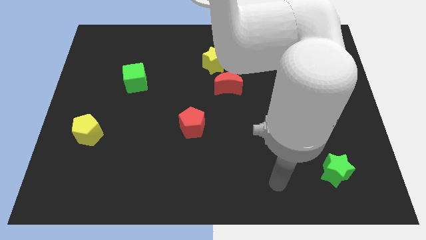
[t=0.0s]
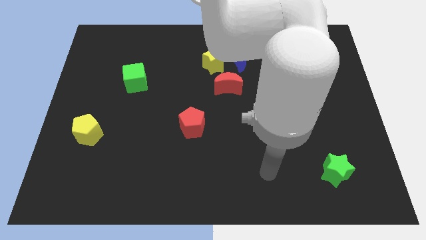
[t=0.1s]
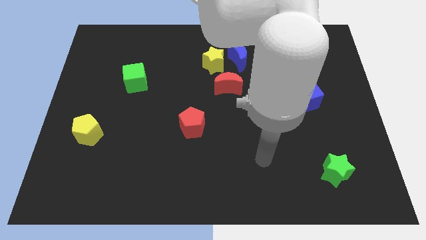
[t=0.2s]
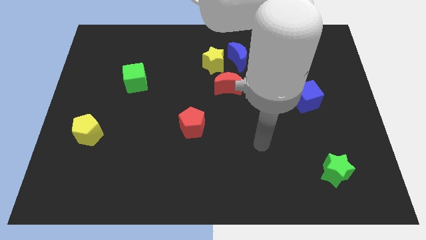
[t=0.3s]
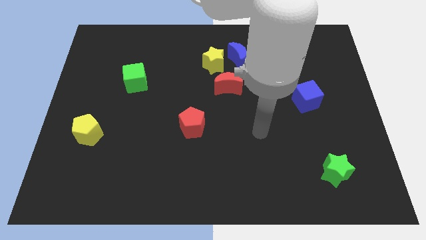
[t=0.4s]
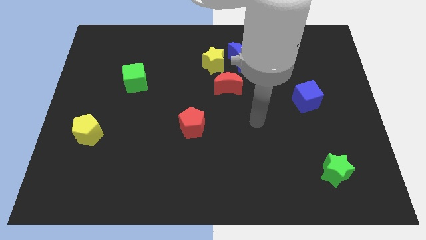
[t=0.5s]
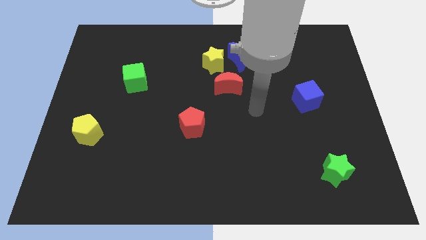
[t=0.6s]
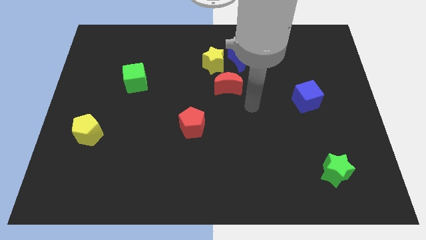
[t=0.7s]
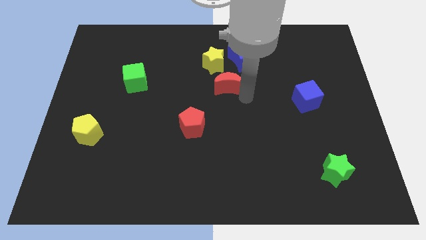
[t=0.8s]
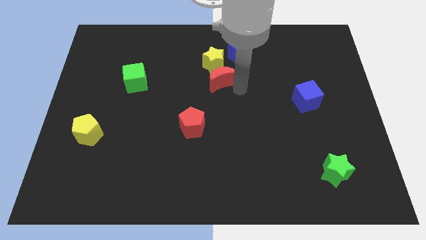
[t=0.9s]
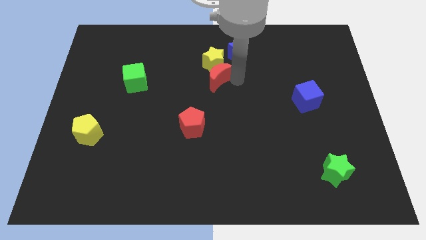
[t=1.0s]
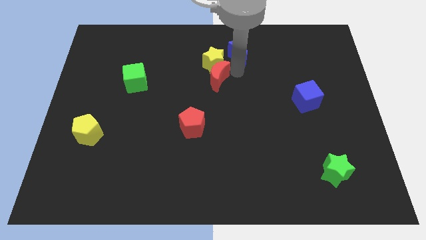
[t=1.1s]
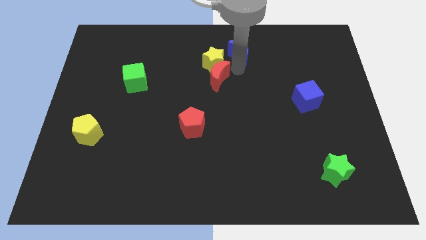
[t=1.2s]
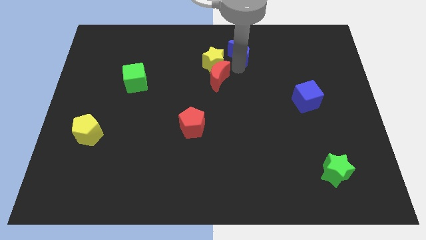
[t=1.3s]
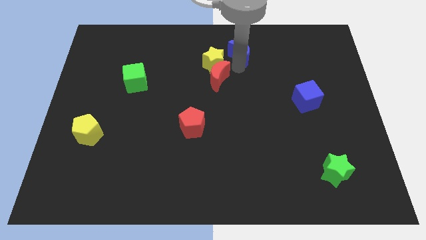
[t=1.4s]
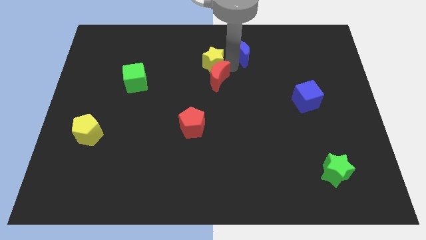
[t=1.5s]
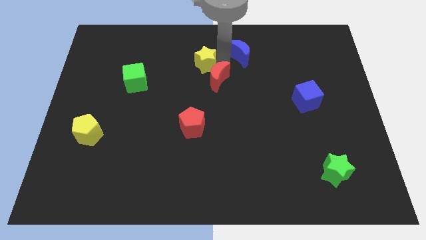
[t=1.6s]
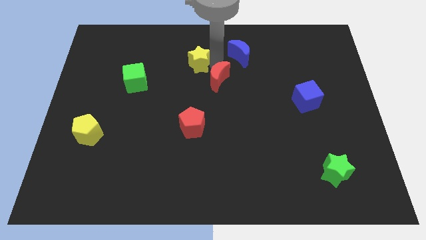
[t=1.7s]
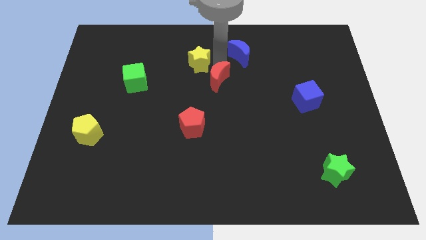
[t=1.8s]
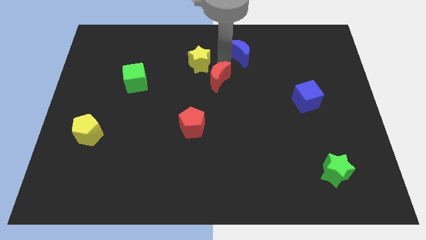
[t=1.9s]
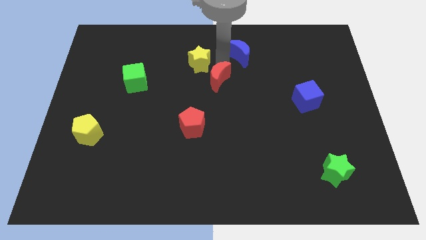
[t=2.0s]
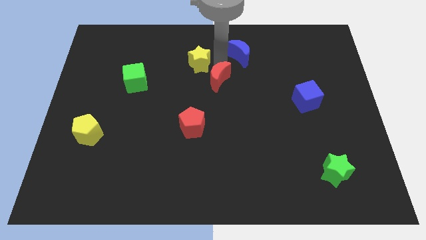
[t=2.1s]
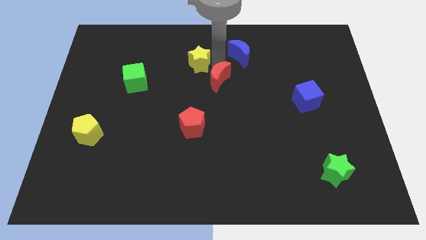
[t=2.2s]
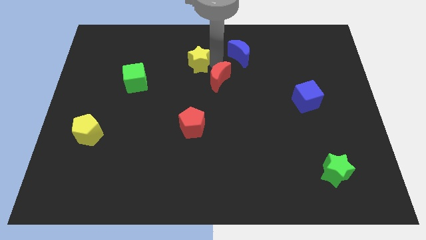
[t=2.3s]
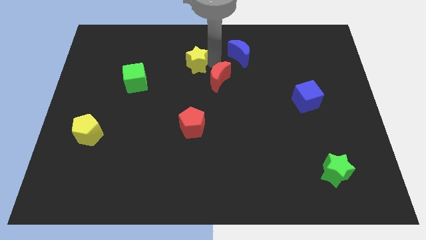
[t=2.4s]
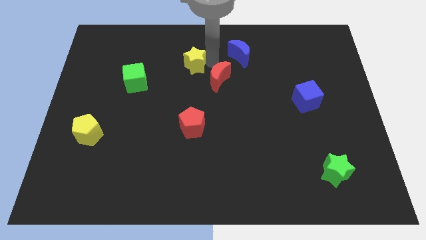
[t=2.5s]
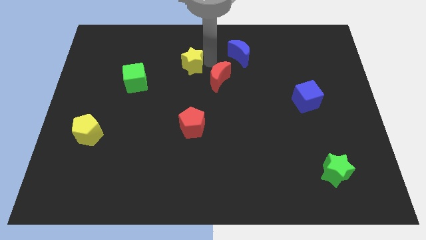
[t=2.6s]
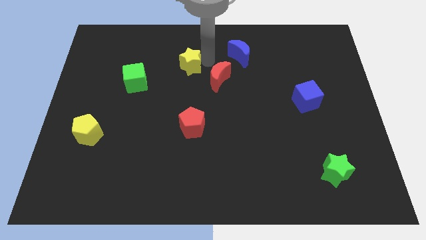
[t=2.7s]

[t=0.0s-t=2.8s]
separate the yellow star from the blue moon and red moon

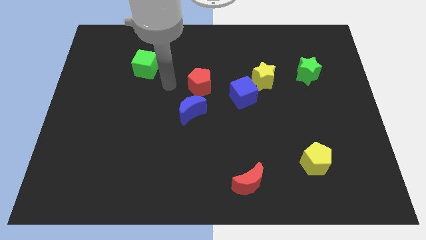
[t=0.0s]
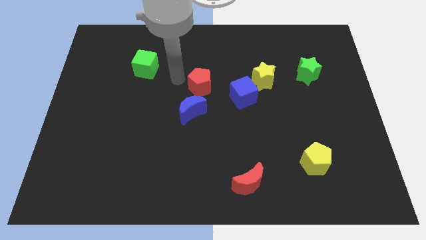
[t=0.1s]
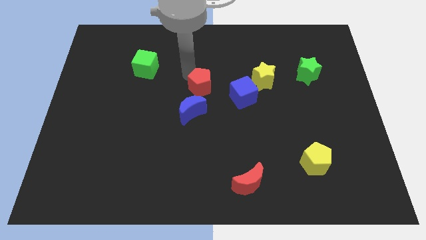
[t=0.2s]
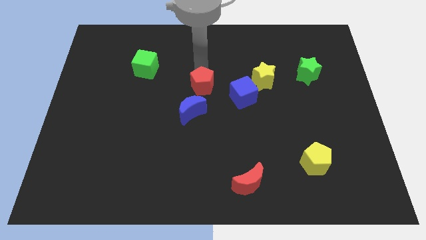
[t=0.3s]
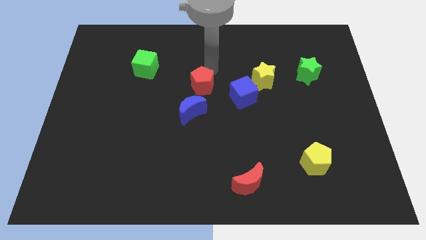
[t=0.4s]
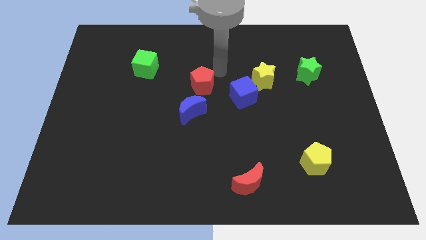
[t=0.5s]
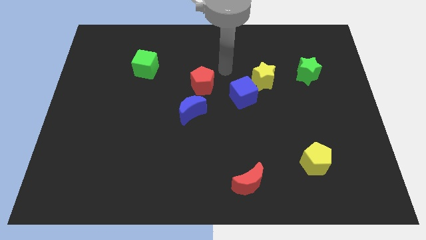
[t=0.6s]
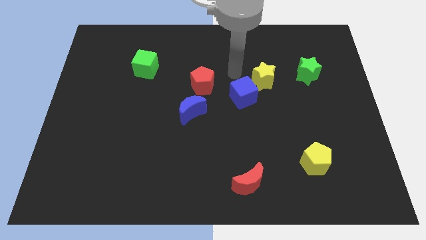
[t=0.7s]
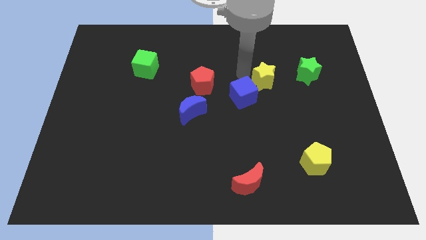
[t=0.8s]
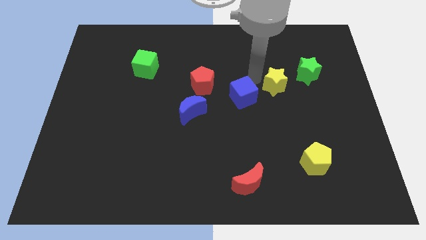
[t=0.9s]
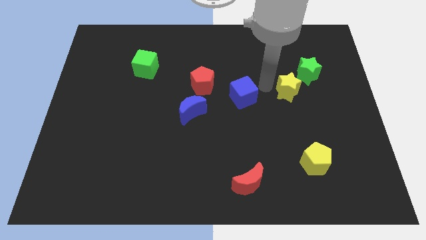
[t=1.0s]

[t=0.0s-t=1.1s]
move the blue cube away from the yellow star

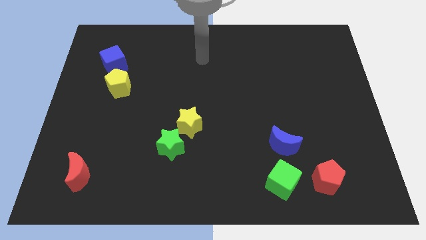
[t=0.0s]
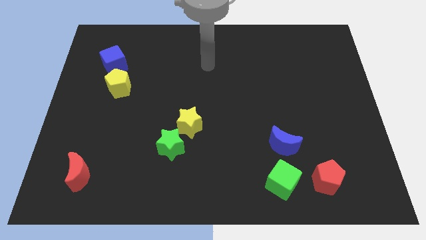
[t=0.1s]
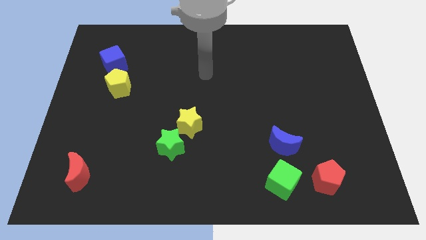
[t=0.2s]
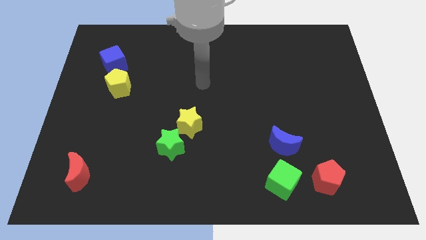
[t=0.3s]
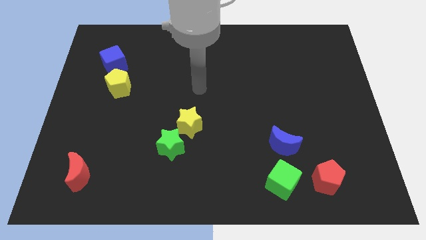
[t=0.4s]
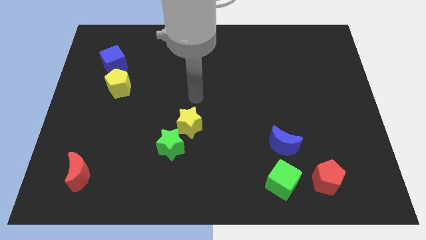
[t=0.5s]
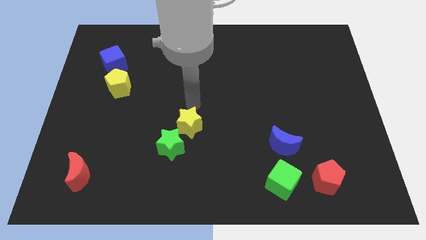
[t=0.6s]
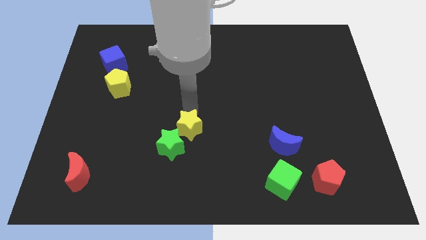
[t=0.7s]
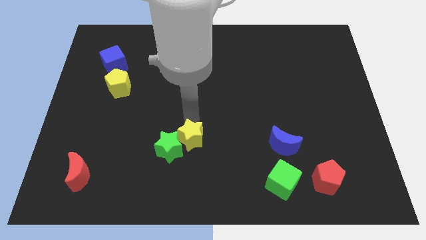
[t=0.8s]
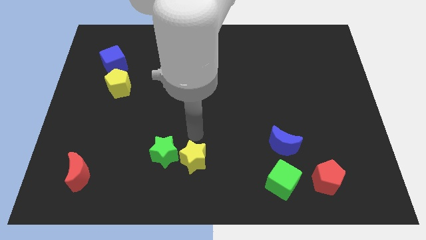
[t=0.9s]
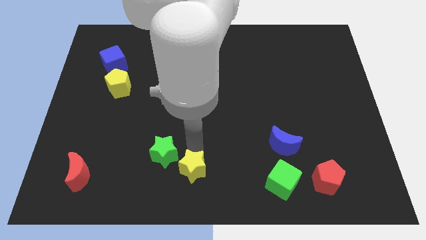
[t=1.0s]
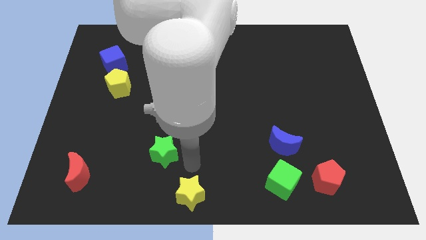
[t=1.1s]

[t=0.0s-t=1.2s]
move the green star away from the yellow star

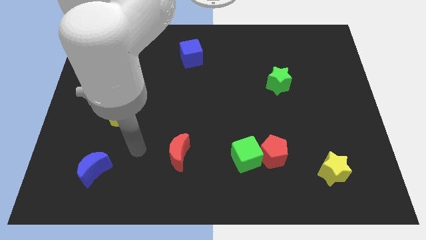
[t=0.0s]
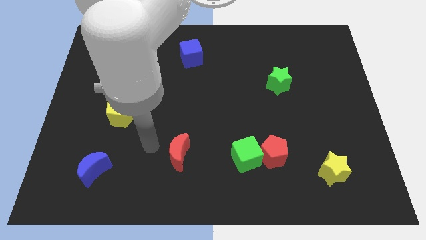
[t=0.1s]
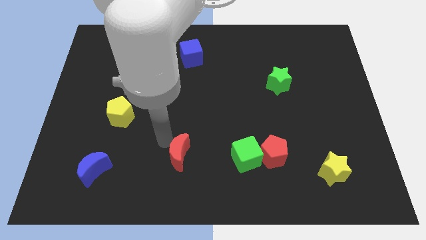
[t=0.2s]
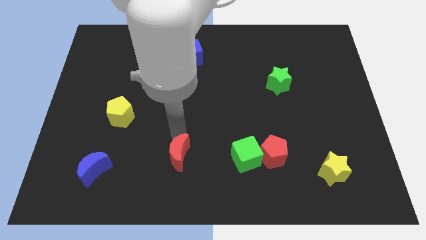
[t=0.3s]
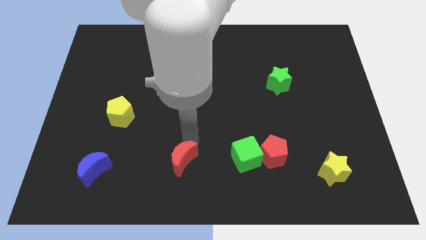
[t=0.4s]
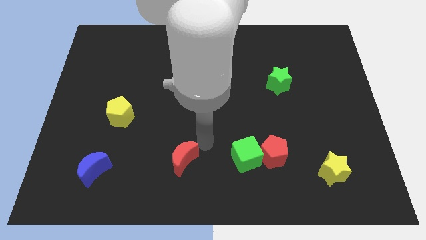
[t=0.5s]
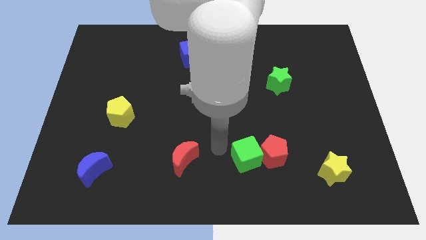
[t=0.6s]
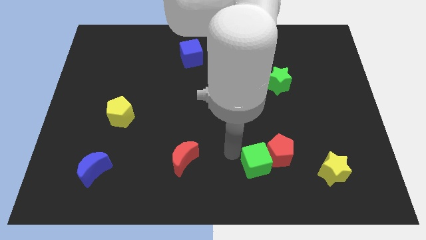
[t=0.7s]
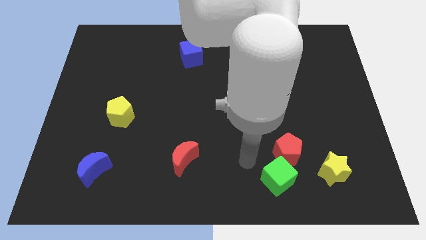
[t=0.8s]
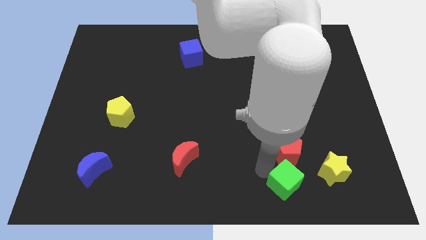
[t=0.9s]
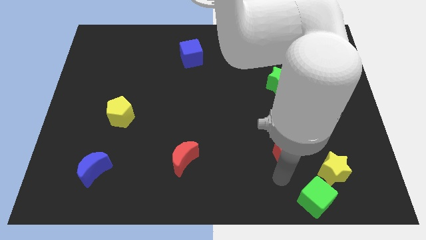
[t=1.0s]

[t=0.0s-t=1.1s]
move the red pentagon away from the green cube

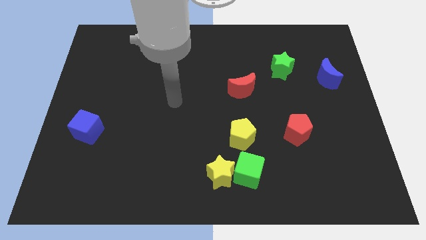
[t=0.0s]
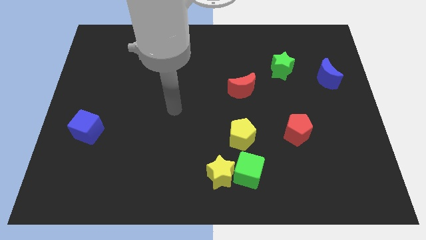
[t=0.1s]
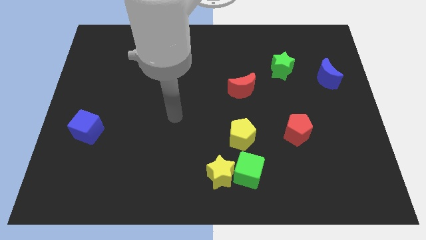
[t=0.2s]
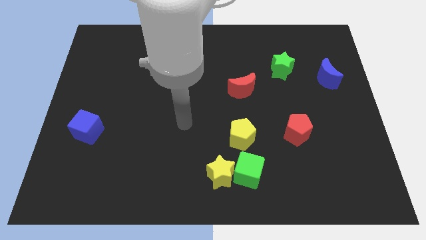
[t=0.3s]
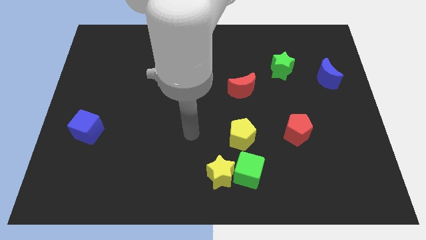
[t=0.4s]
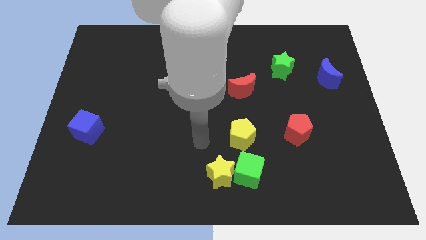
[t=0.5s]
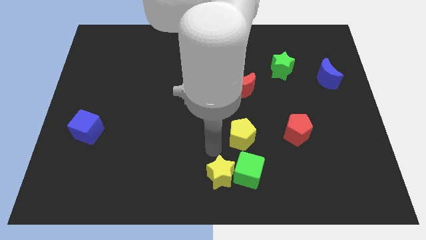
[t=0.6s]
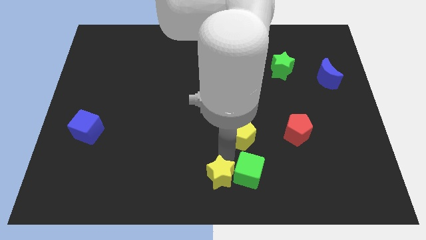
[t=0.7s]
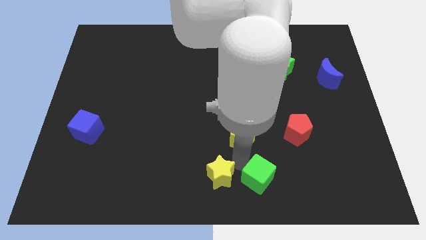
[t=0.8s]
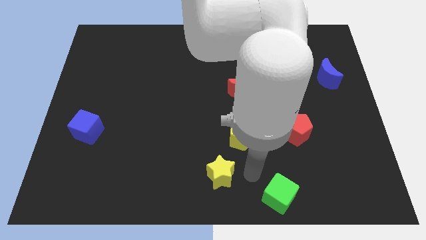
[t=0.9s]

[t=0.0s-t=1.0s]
separate the yellow star from the green cube

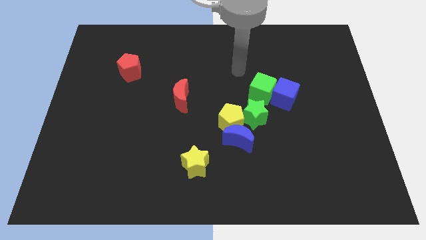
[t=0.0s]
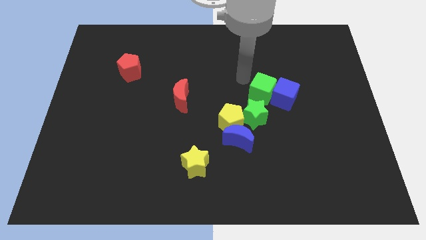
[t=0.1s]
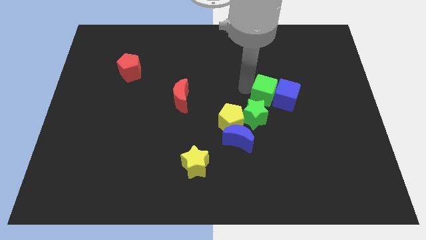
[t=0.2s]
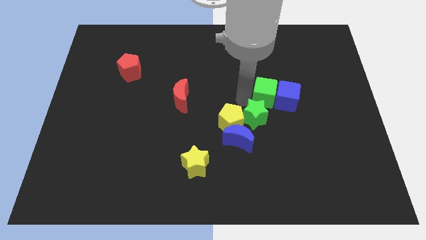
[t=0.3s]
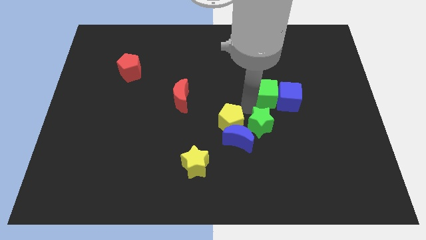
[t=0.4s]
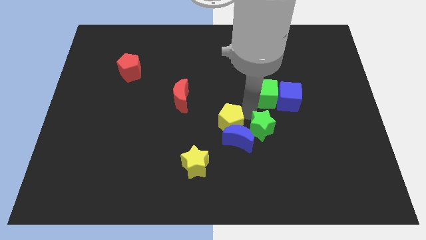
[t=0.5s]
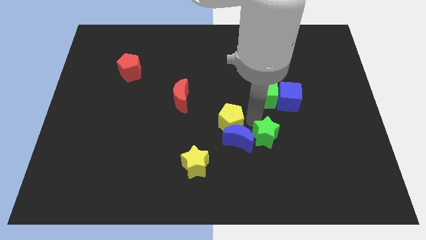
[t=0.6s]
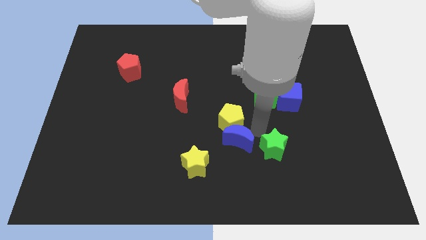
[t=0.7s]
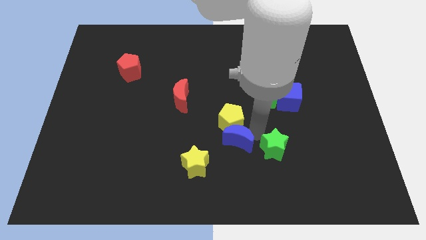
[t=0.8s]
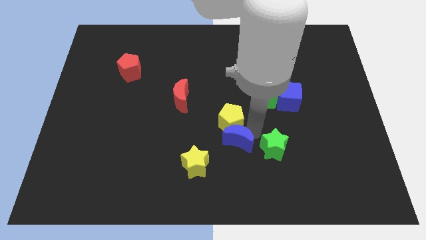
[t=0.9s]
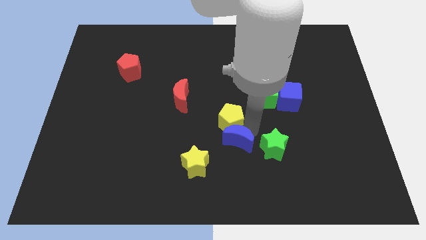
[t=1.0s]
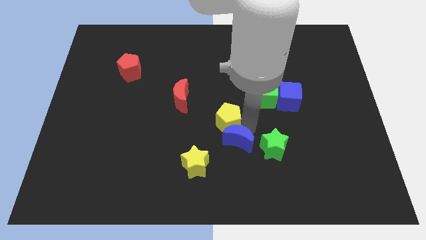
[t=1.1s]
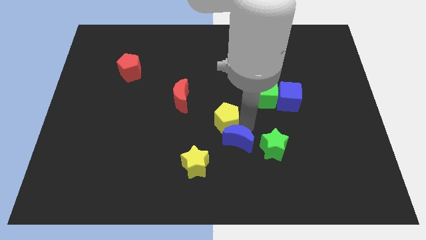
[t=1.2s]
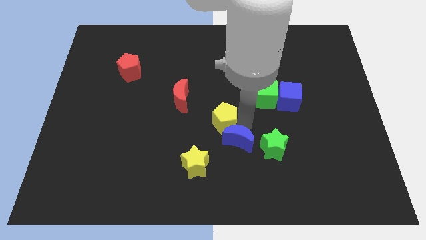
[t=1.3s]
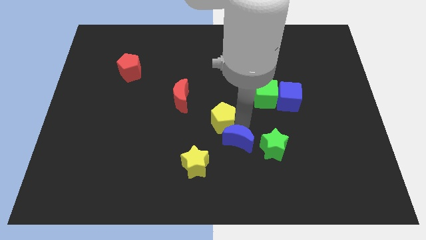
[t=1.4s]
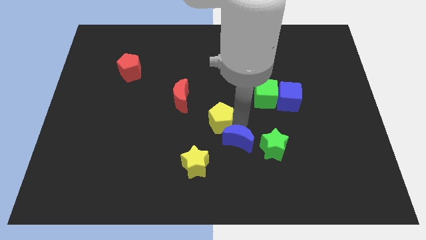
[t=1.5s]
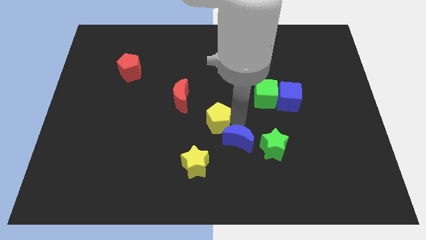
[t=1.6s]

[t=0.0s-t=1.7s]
pull the yellow pentagon apart from the blue moon and green star

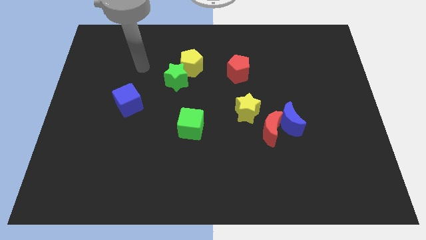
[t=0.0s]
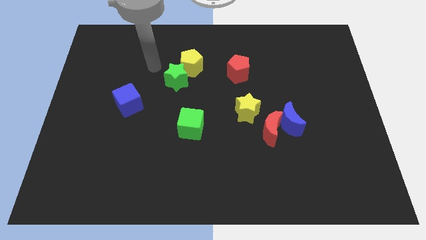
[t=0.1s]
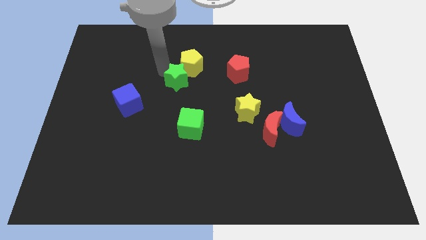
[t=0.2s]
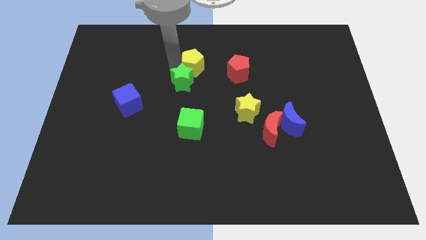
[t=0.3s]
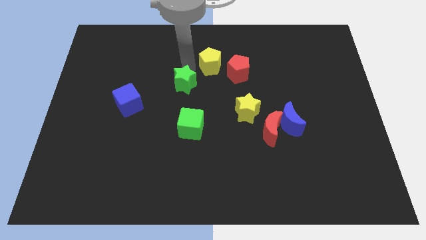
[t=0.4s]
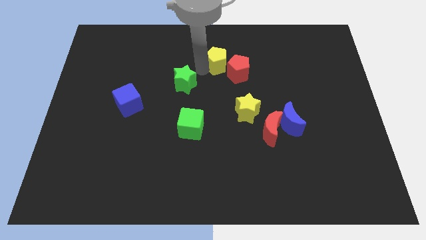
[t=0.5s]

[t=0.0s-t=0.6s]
pull the green star apart from the yellow pentagon
